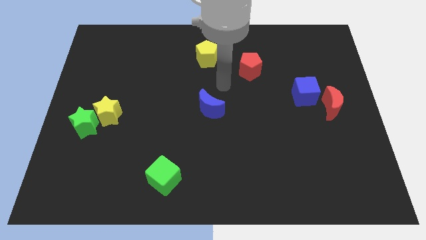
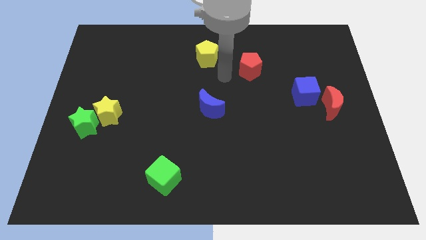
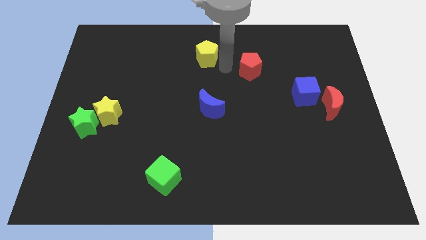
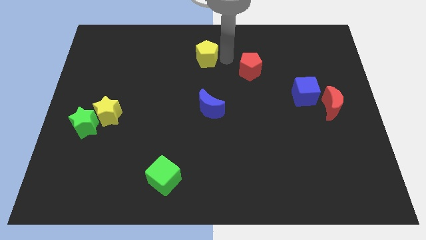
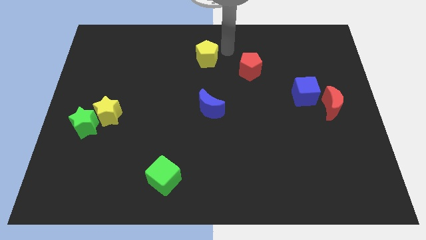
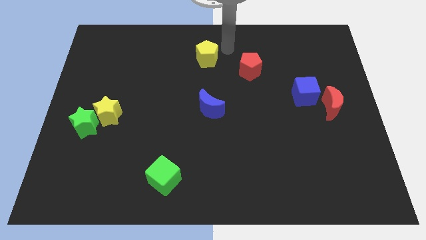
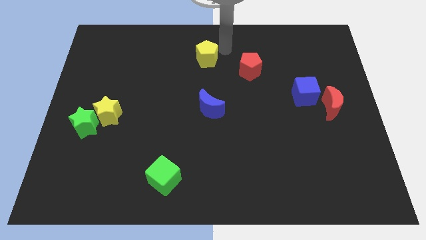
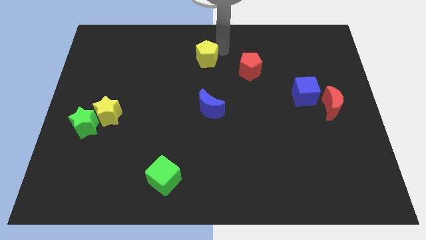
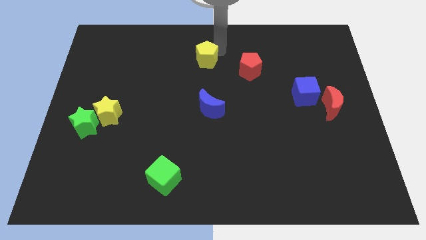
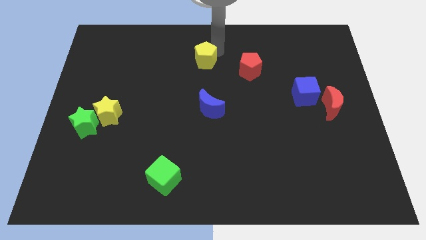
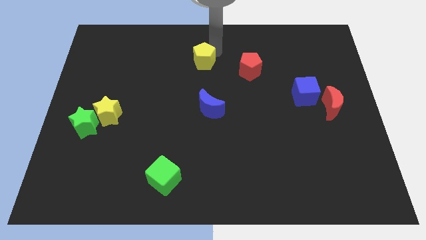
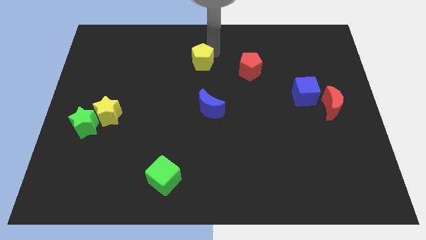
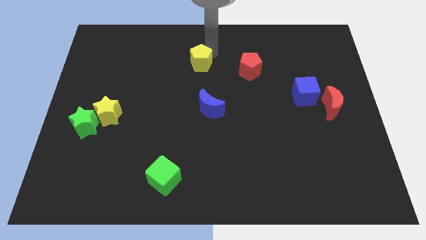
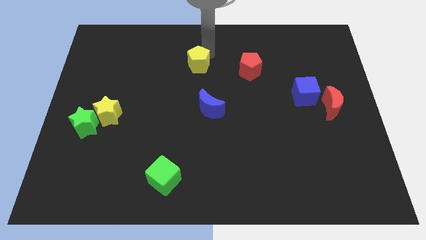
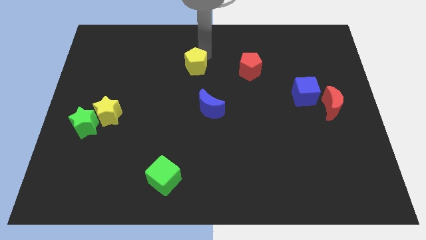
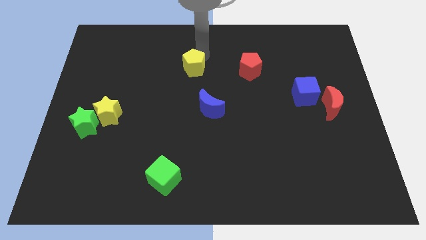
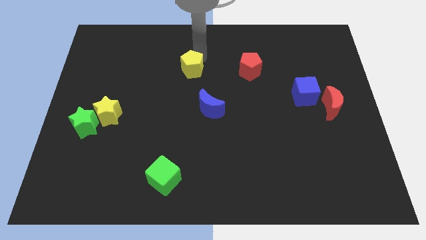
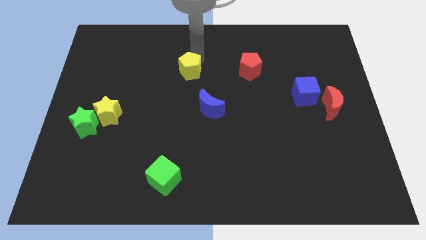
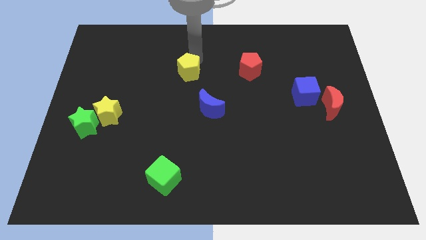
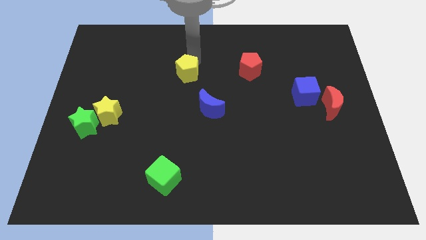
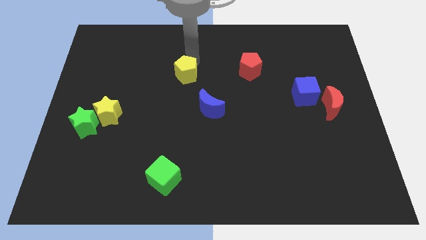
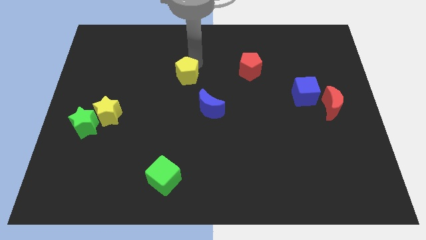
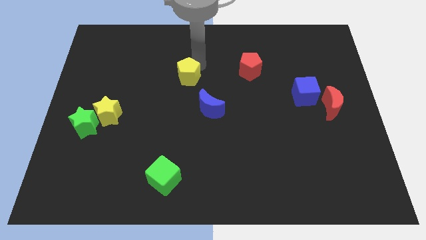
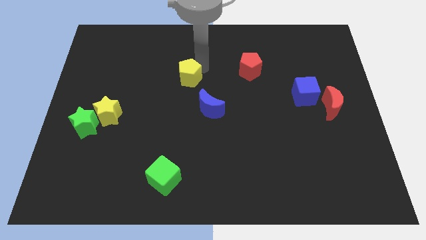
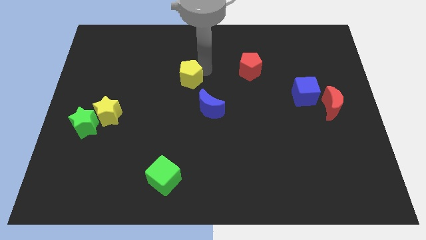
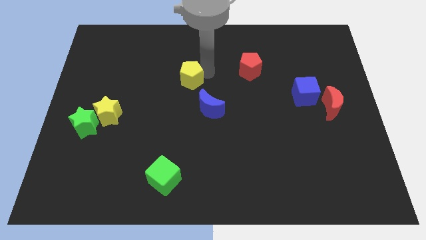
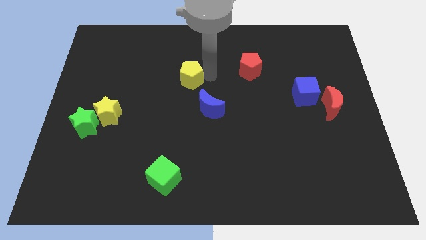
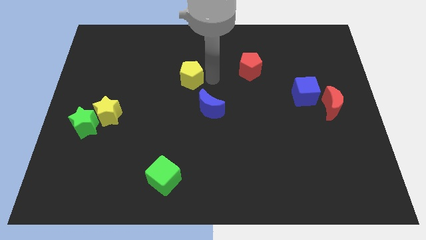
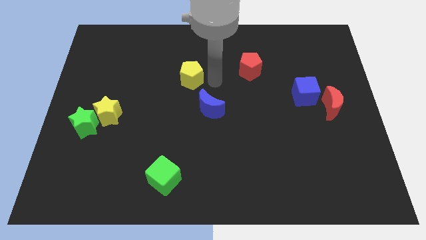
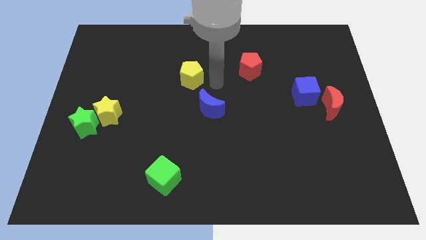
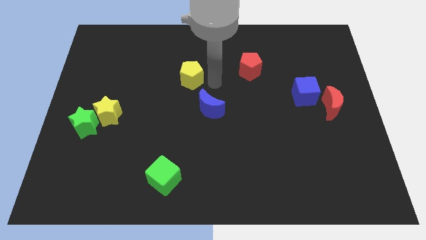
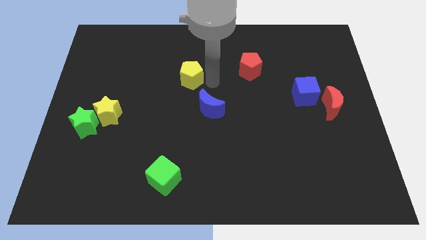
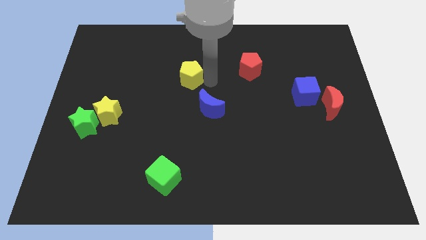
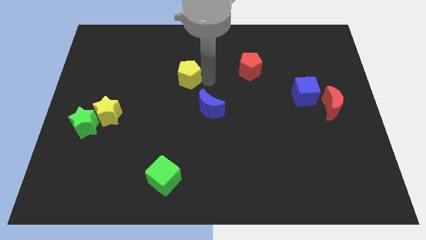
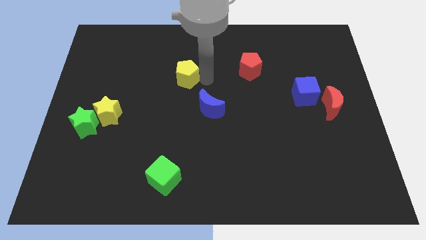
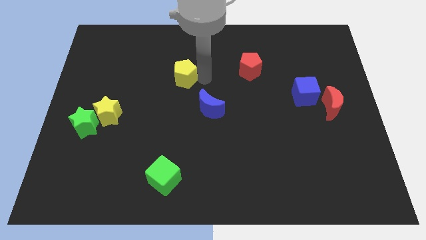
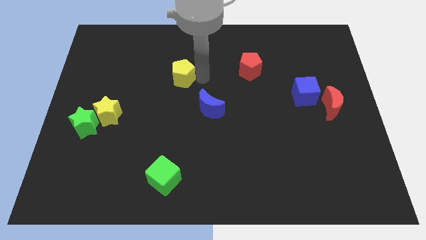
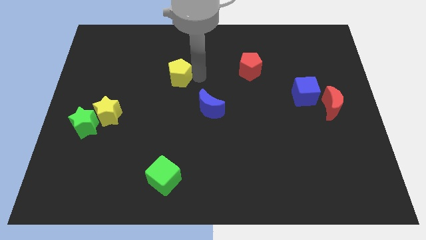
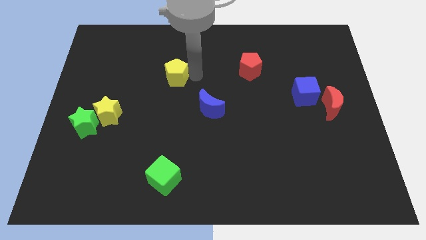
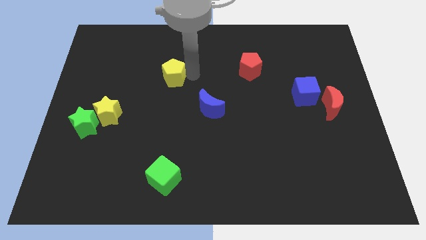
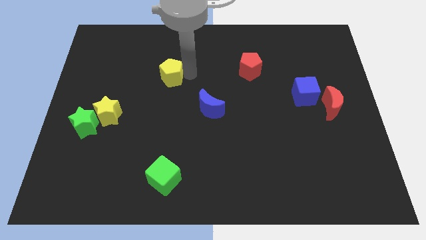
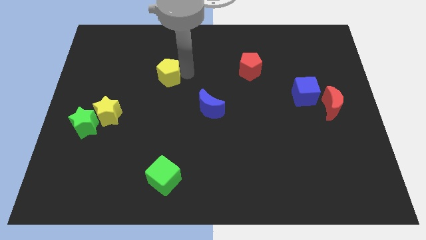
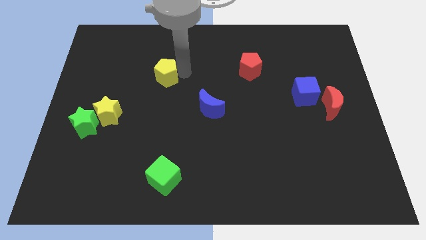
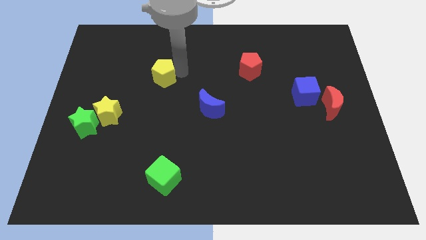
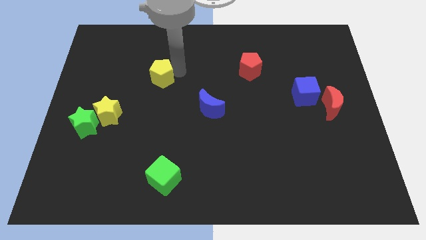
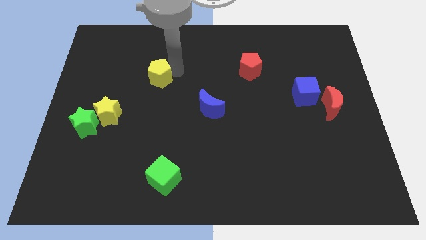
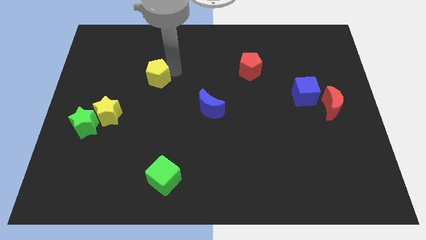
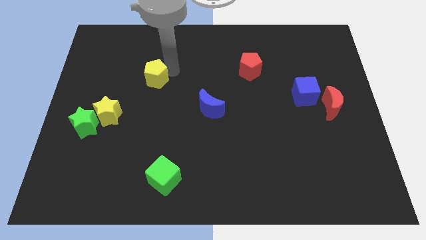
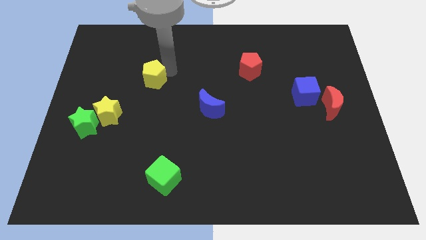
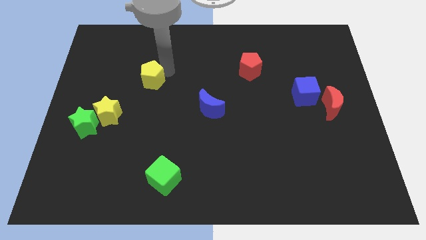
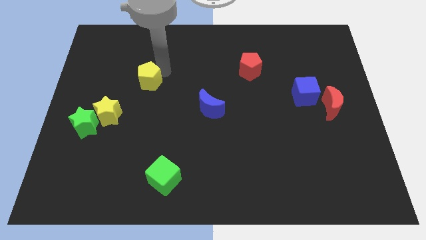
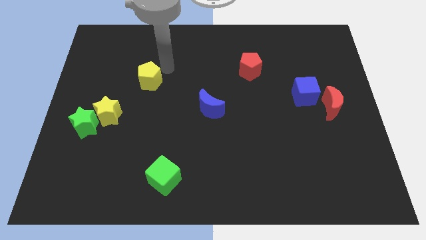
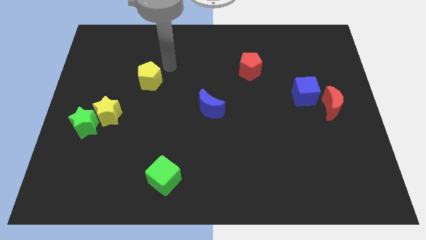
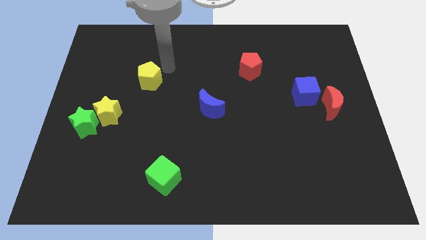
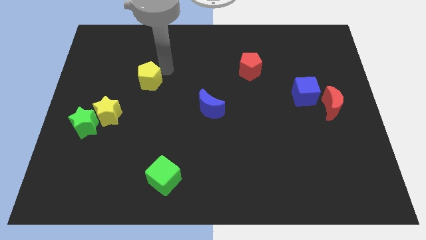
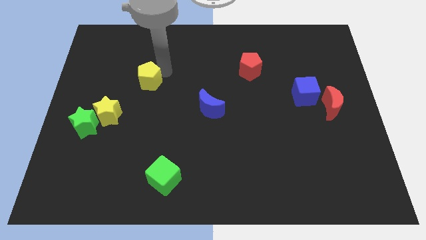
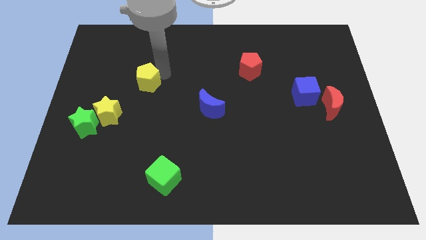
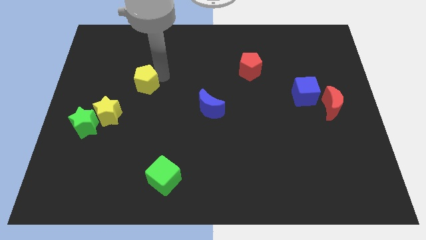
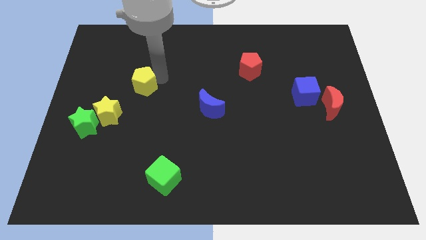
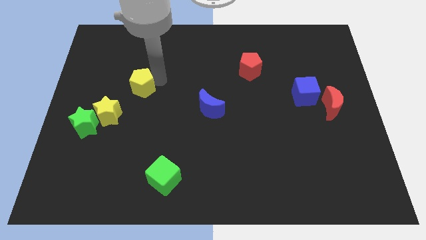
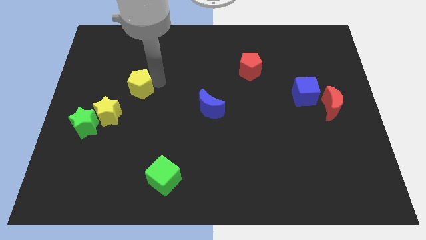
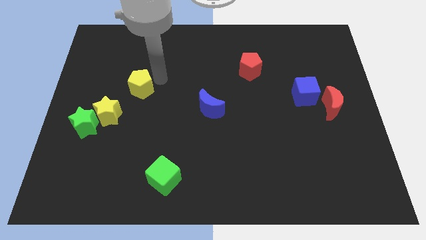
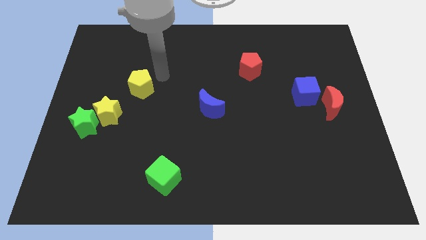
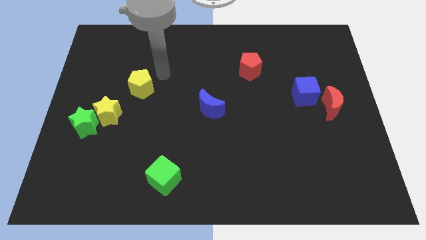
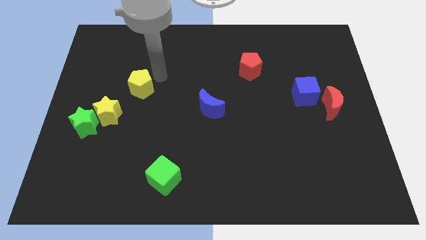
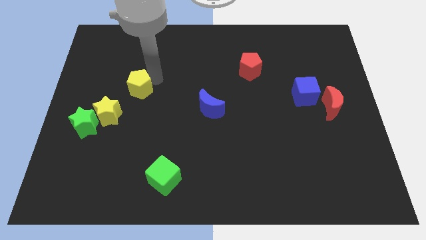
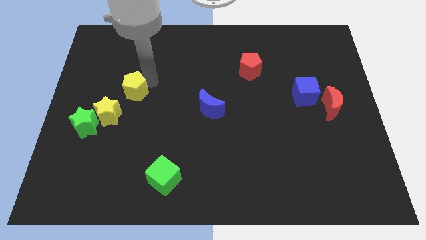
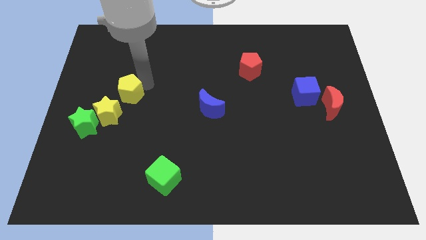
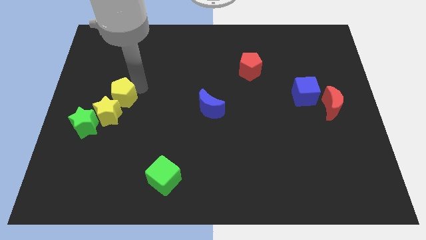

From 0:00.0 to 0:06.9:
push the yellow pentagon diagonally up and to the right of the green star
